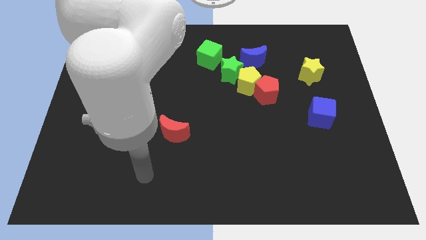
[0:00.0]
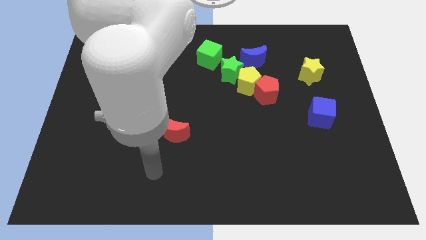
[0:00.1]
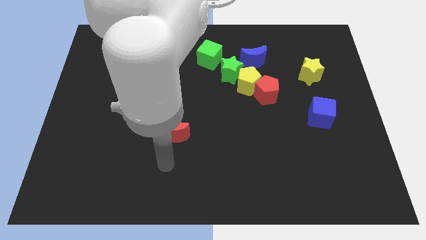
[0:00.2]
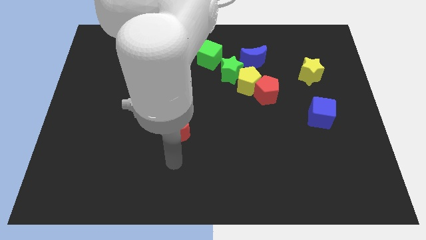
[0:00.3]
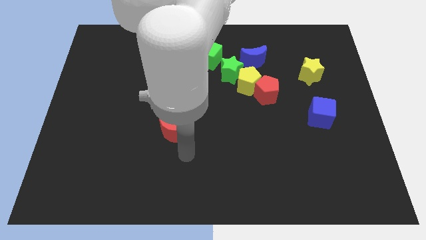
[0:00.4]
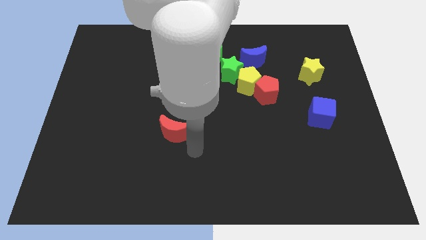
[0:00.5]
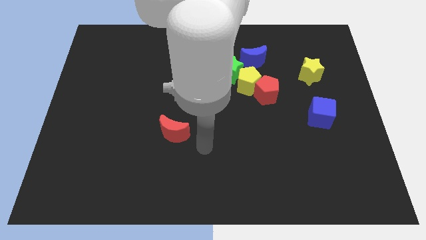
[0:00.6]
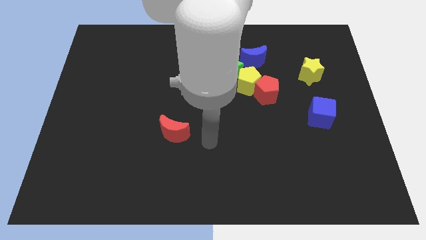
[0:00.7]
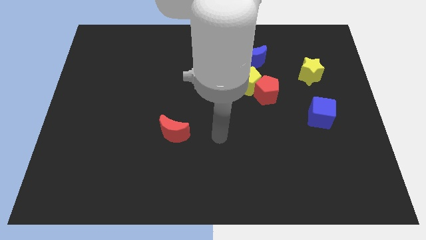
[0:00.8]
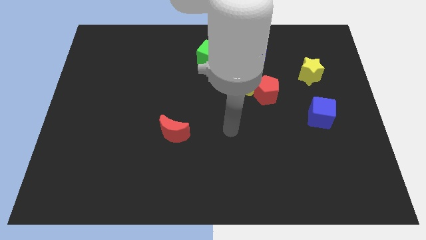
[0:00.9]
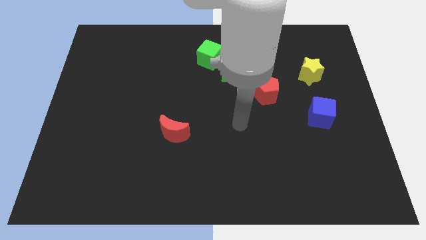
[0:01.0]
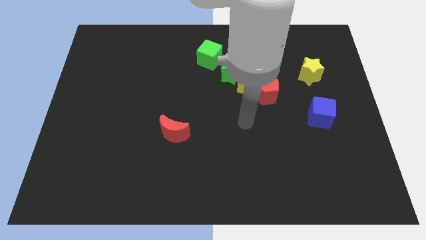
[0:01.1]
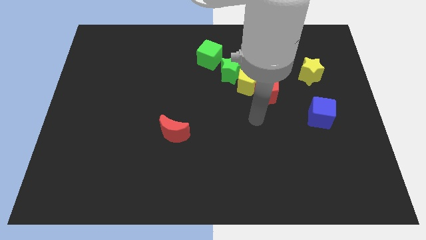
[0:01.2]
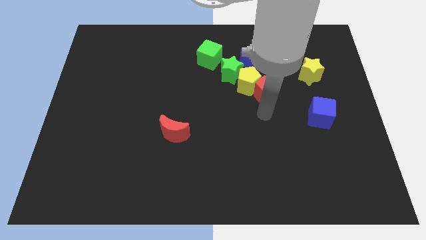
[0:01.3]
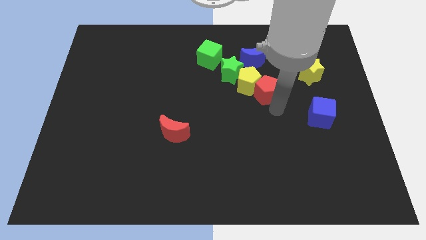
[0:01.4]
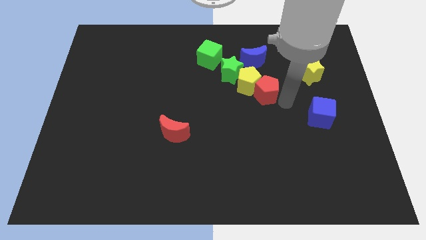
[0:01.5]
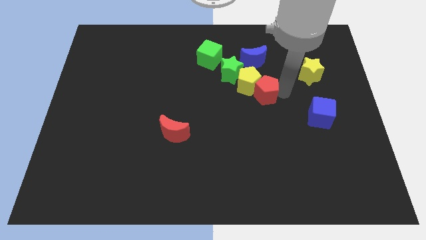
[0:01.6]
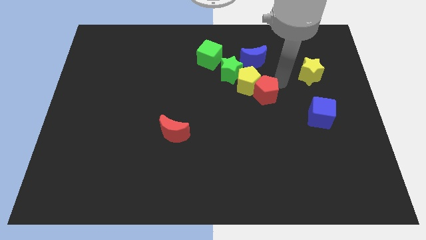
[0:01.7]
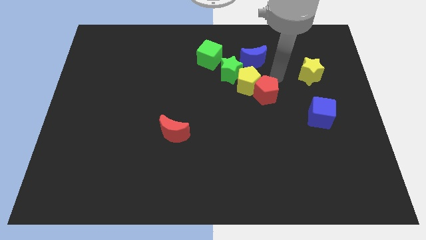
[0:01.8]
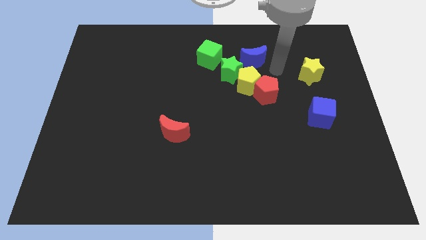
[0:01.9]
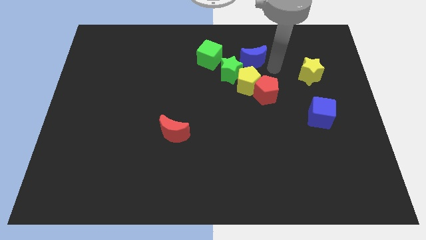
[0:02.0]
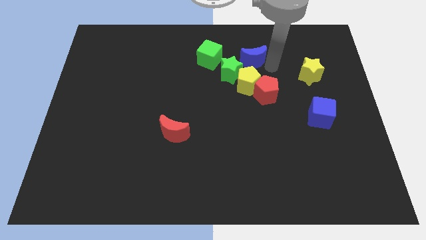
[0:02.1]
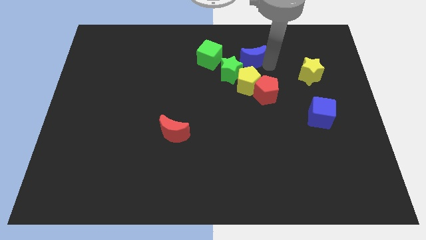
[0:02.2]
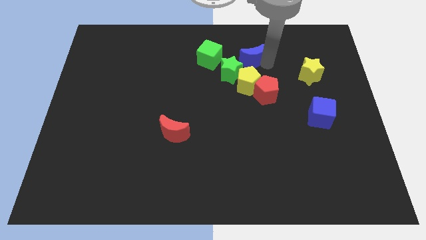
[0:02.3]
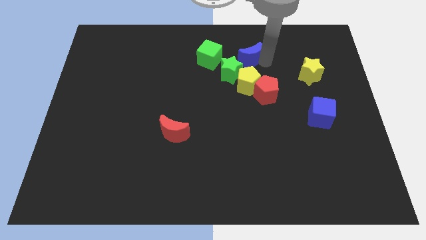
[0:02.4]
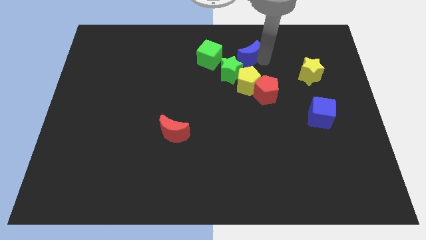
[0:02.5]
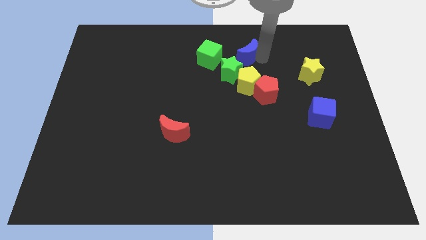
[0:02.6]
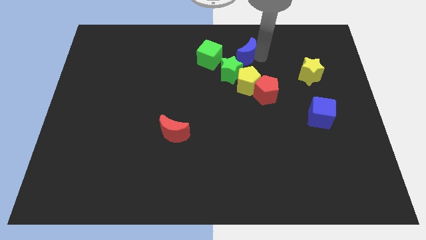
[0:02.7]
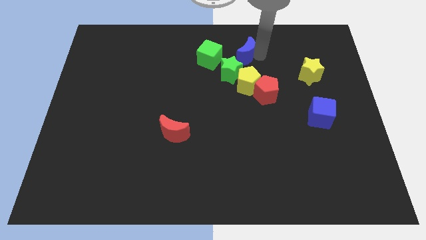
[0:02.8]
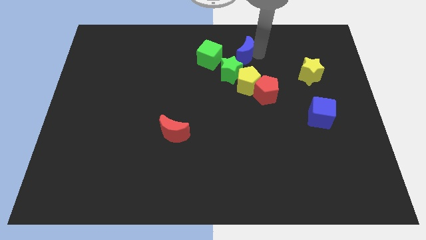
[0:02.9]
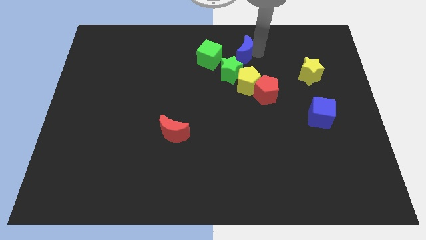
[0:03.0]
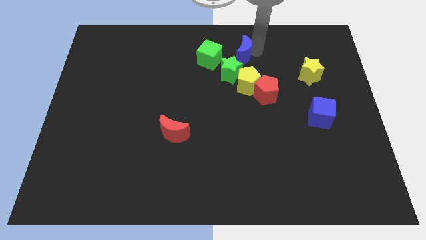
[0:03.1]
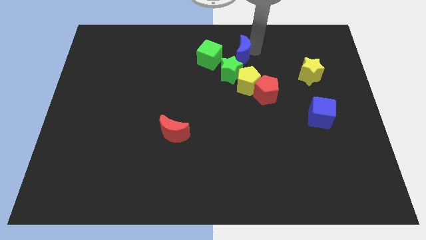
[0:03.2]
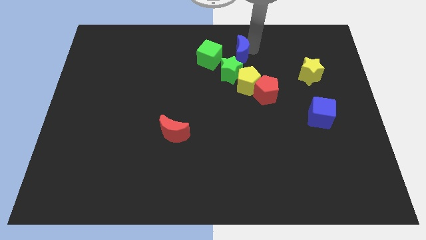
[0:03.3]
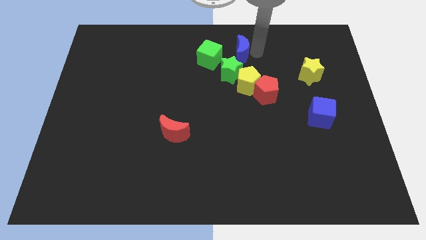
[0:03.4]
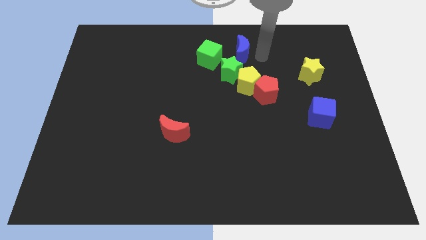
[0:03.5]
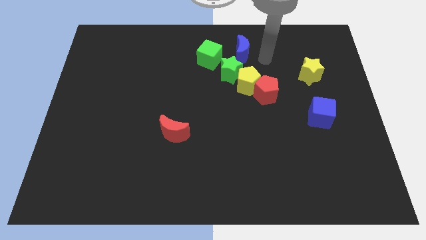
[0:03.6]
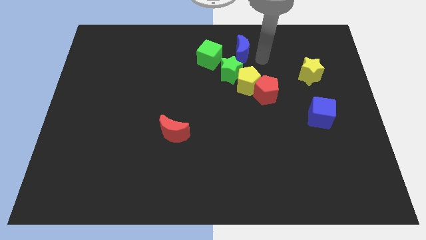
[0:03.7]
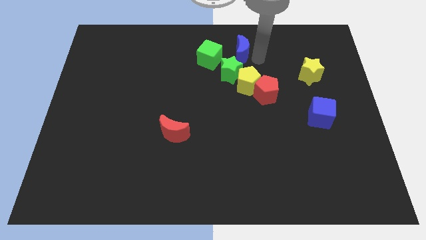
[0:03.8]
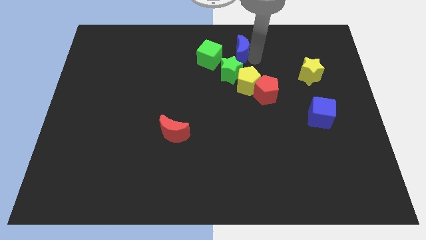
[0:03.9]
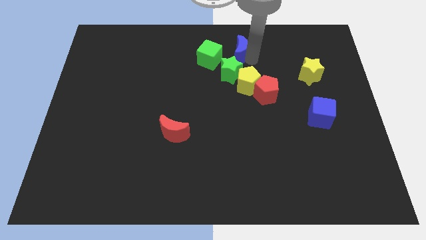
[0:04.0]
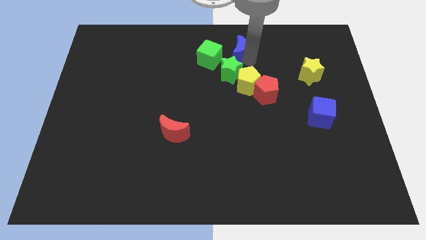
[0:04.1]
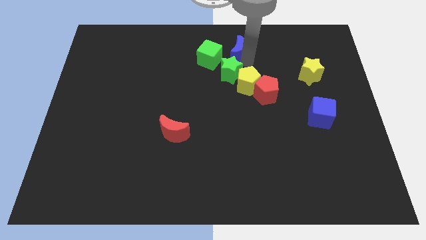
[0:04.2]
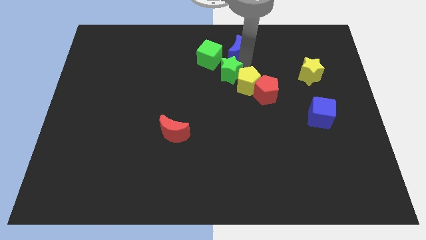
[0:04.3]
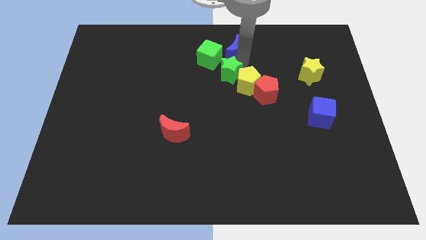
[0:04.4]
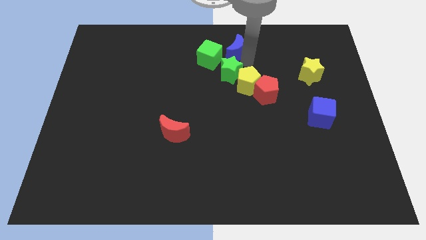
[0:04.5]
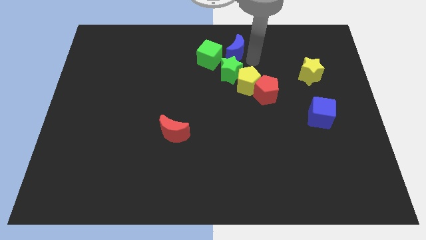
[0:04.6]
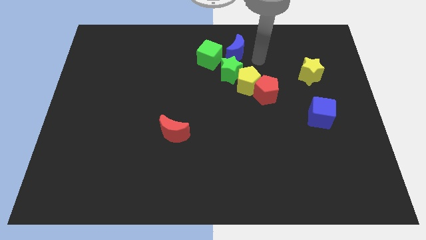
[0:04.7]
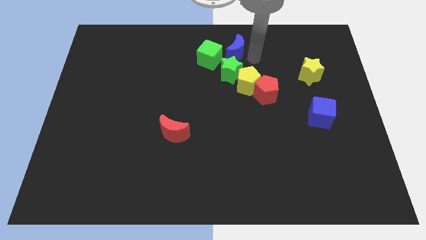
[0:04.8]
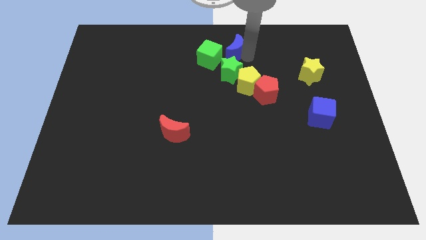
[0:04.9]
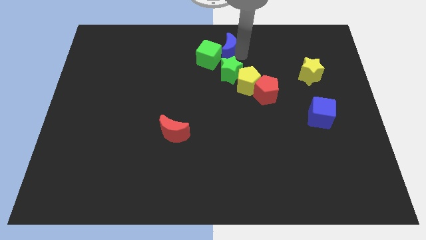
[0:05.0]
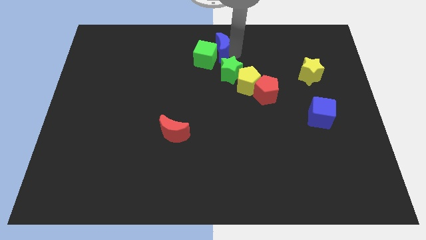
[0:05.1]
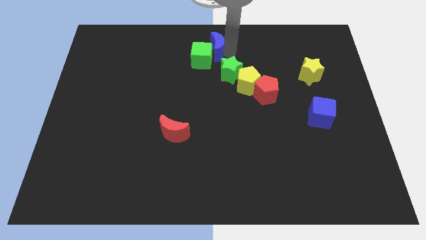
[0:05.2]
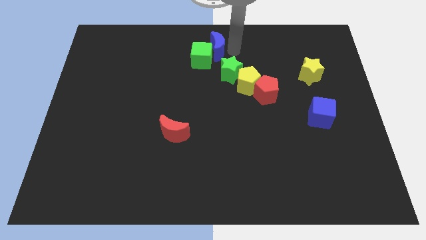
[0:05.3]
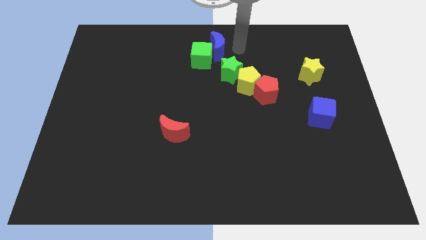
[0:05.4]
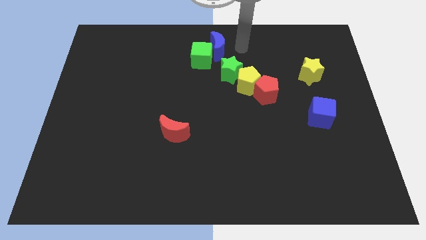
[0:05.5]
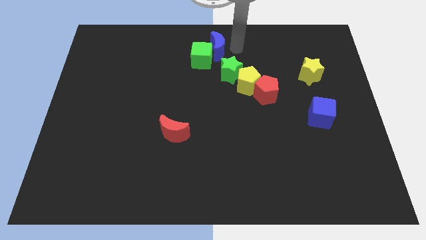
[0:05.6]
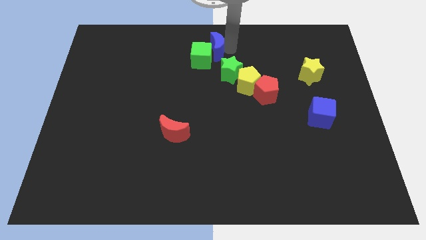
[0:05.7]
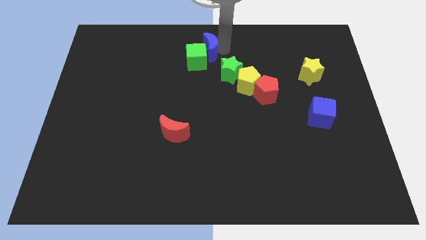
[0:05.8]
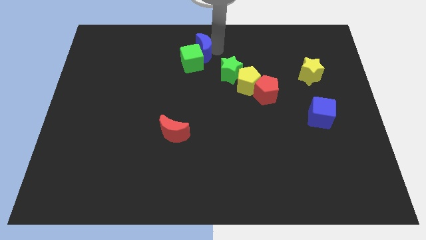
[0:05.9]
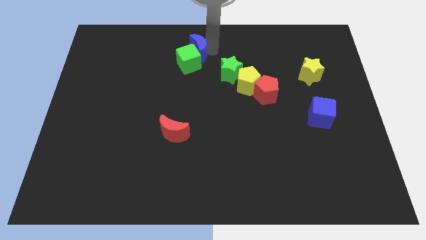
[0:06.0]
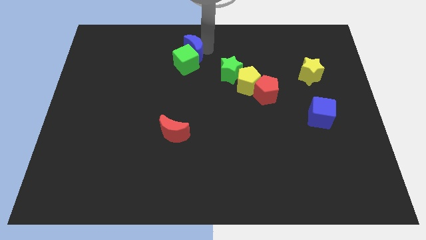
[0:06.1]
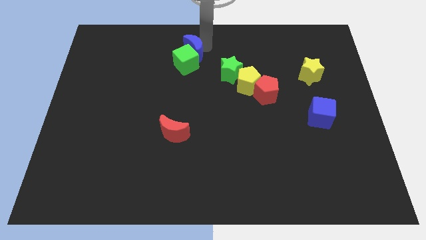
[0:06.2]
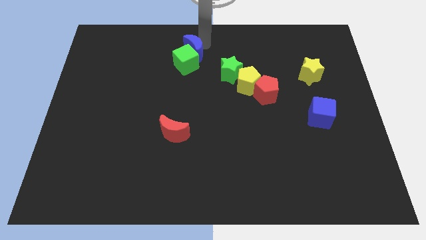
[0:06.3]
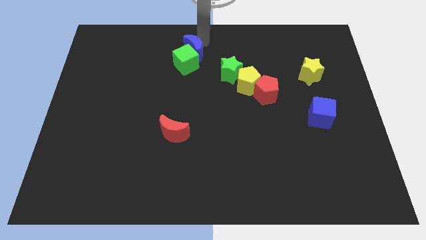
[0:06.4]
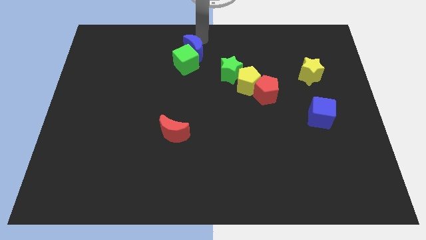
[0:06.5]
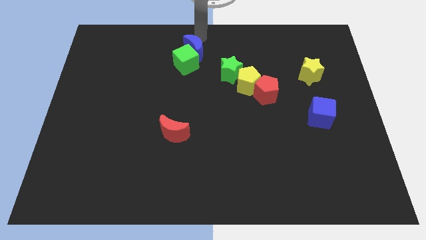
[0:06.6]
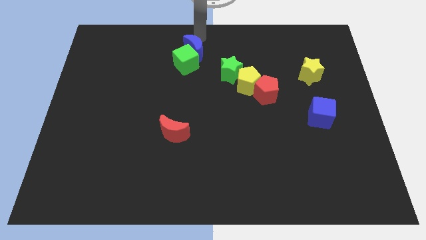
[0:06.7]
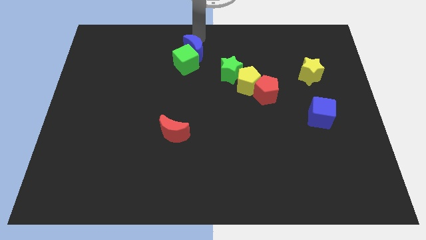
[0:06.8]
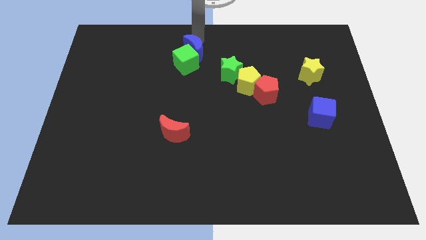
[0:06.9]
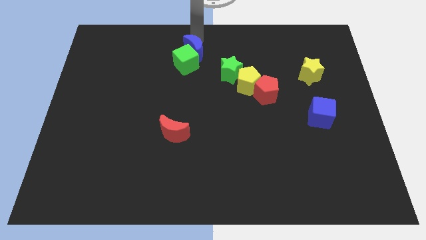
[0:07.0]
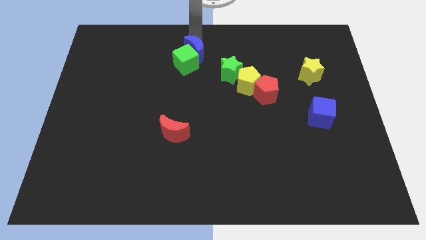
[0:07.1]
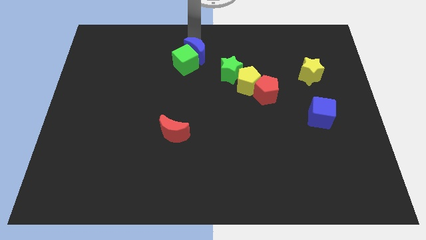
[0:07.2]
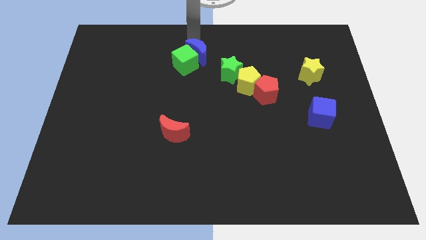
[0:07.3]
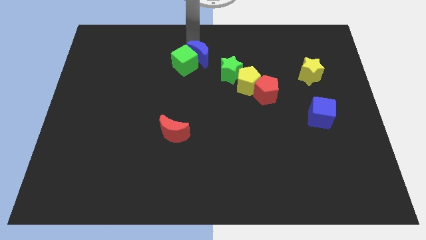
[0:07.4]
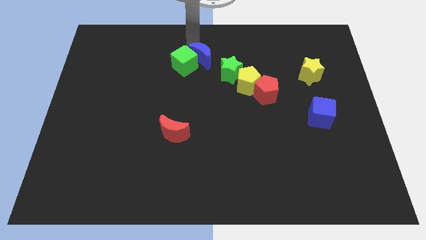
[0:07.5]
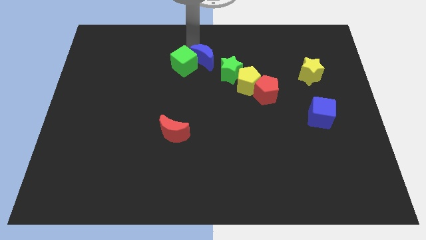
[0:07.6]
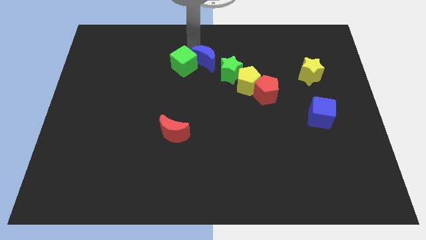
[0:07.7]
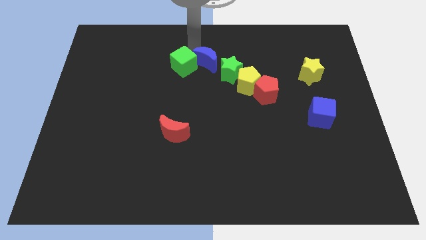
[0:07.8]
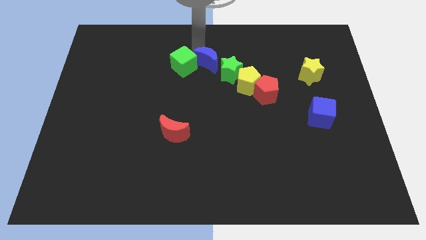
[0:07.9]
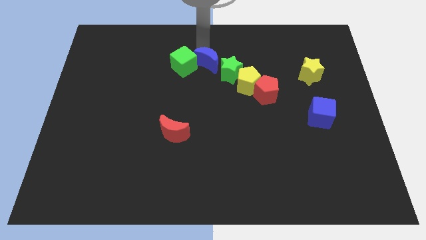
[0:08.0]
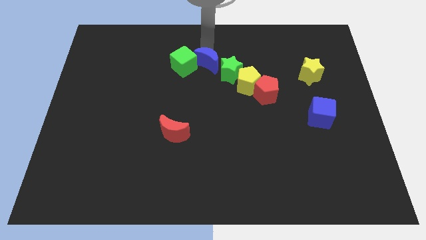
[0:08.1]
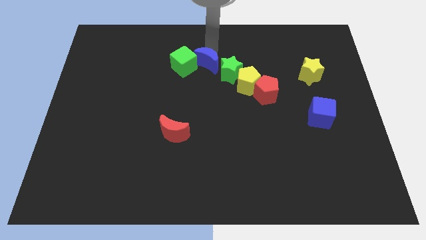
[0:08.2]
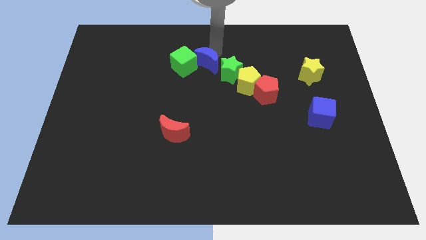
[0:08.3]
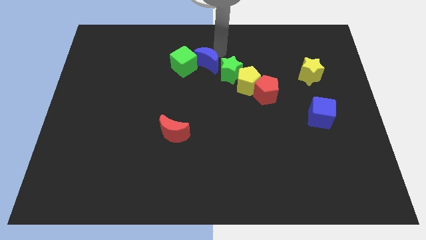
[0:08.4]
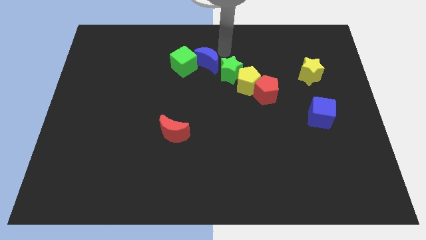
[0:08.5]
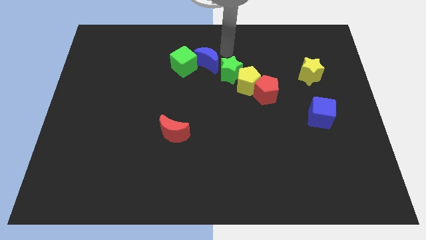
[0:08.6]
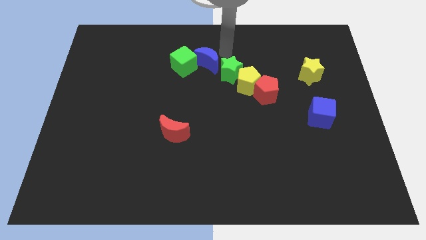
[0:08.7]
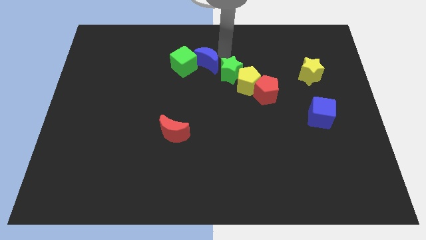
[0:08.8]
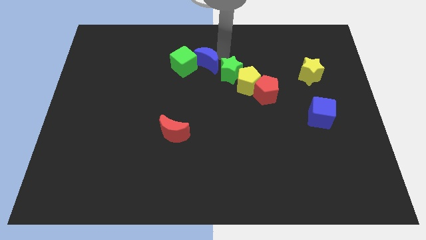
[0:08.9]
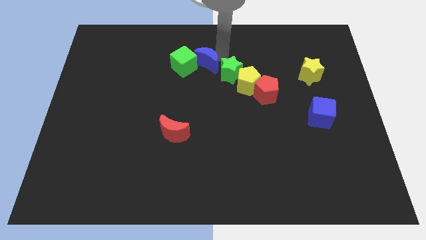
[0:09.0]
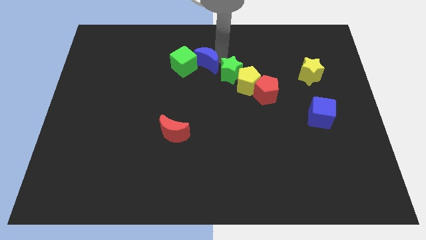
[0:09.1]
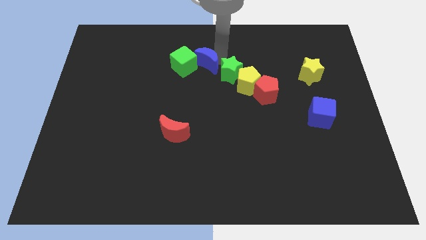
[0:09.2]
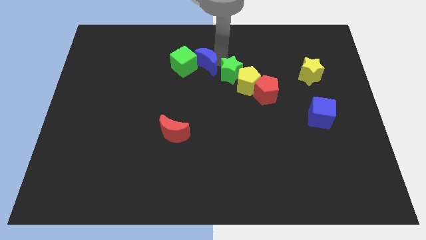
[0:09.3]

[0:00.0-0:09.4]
move the blue moon somewhat down and to the left diagonally
